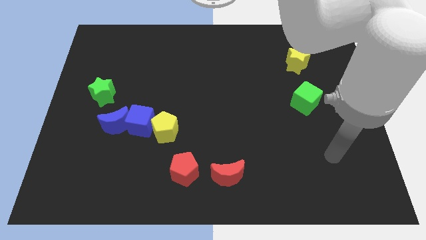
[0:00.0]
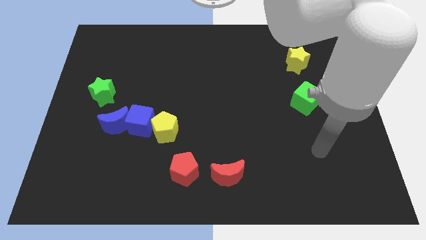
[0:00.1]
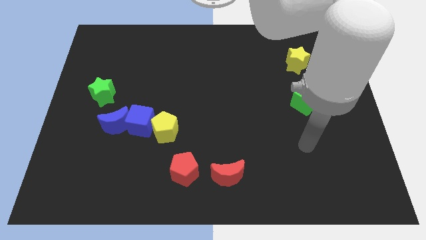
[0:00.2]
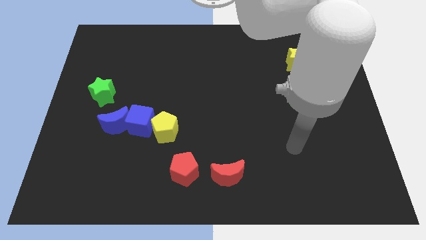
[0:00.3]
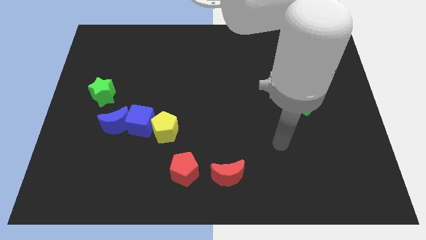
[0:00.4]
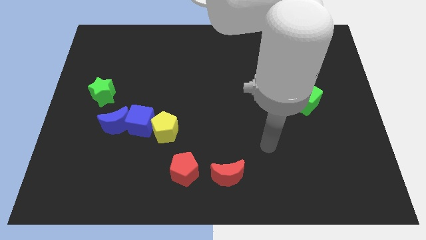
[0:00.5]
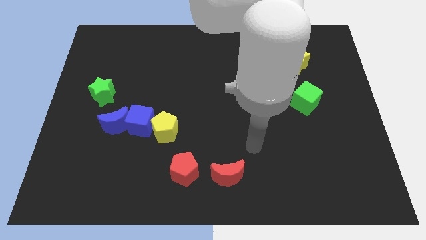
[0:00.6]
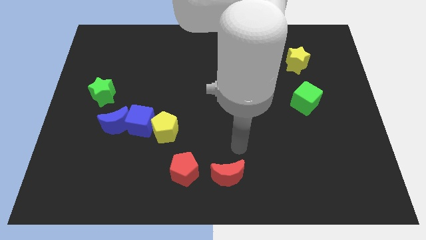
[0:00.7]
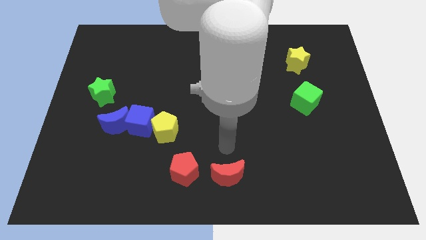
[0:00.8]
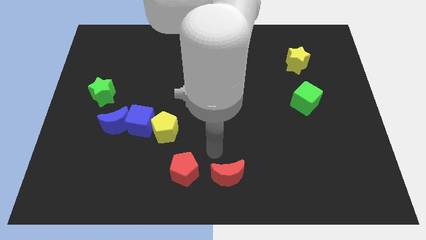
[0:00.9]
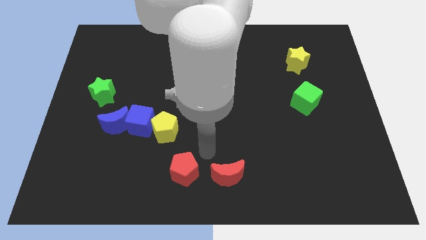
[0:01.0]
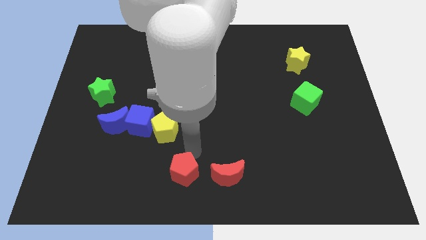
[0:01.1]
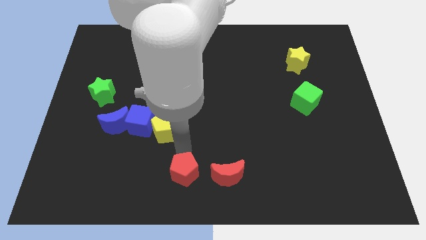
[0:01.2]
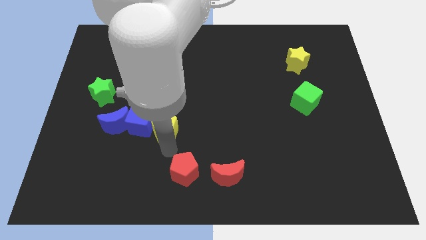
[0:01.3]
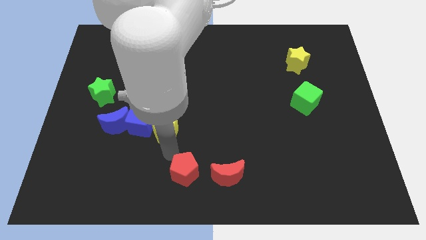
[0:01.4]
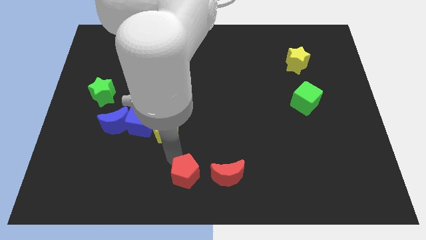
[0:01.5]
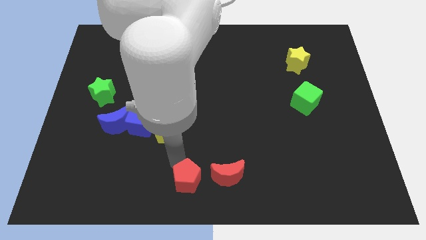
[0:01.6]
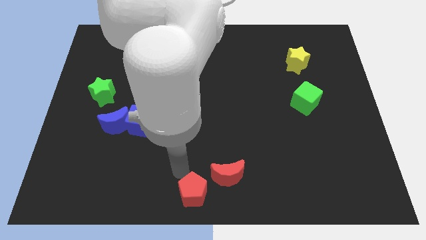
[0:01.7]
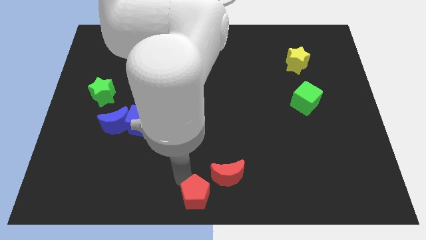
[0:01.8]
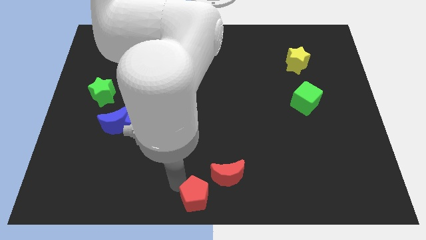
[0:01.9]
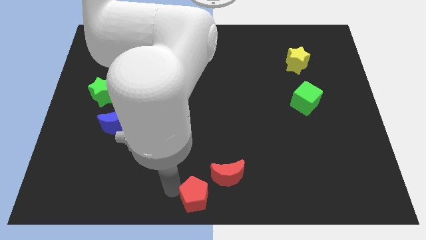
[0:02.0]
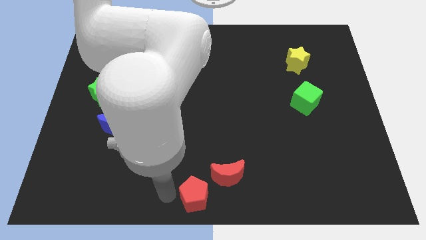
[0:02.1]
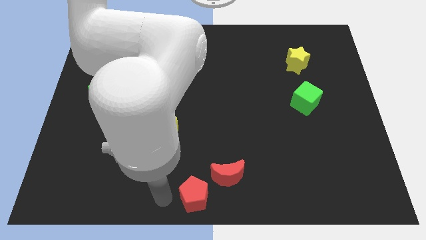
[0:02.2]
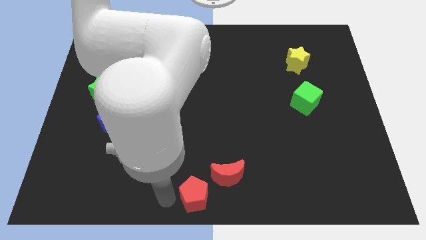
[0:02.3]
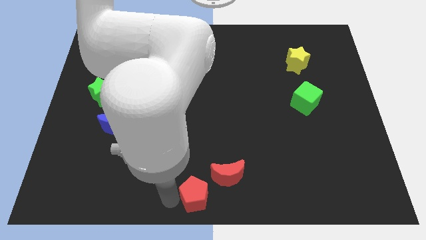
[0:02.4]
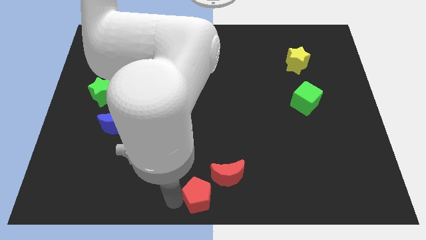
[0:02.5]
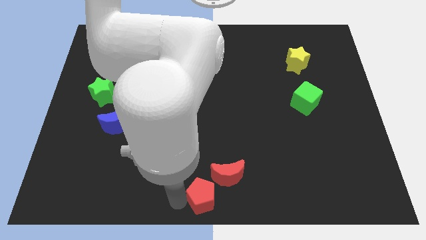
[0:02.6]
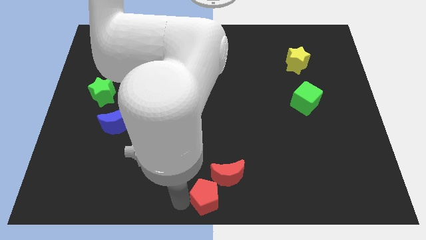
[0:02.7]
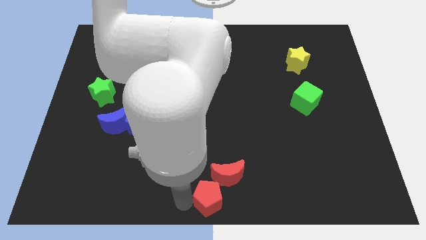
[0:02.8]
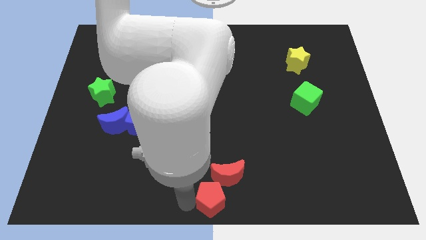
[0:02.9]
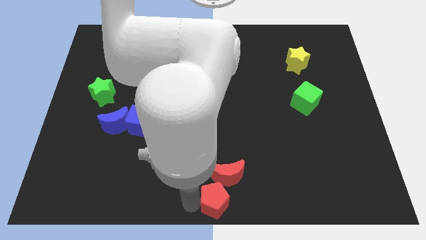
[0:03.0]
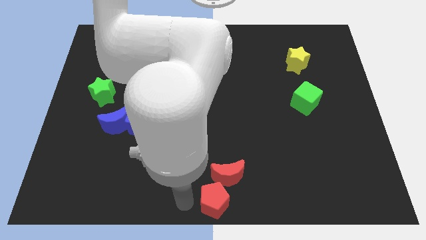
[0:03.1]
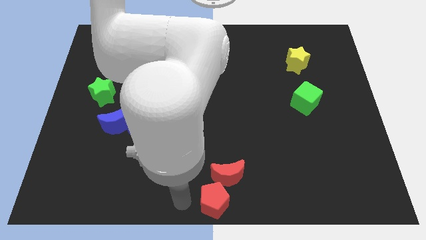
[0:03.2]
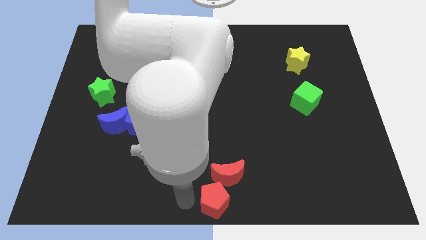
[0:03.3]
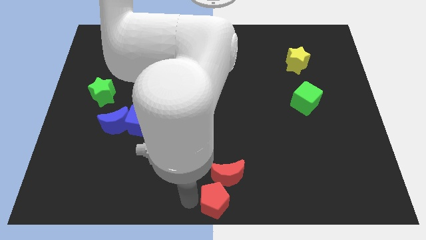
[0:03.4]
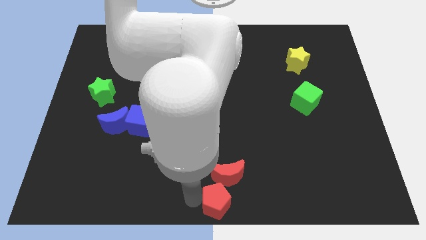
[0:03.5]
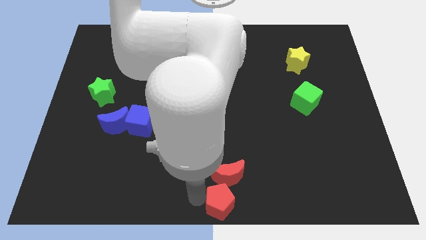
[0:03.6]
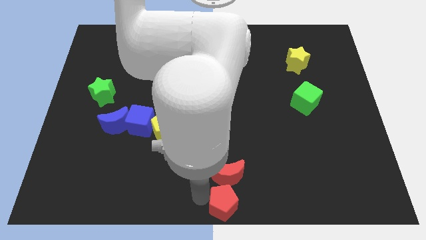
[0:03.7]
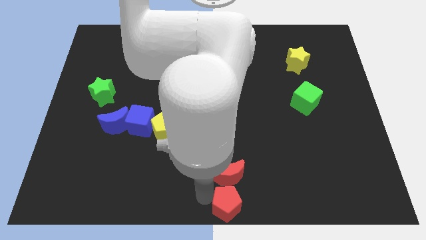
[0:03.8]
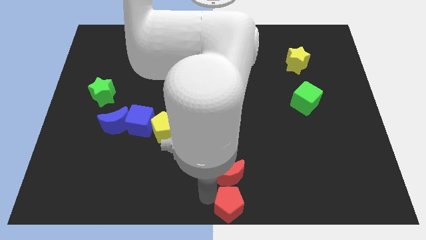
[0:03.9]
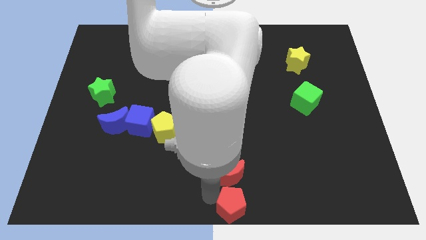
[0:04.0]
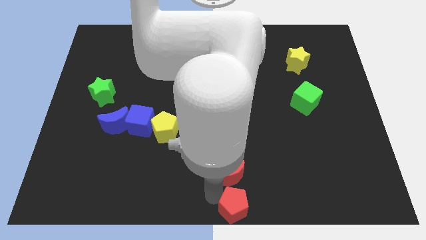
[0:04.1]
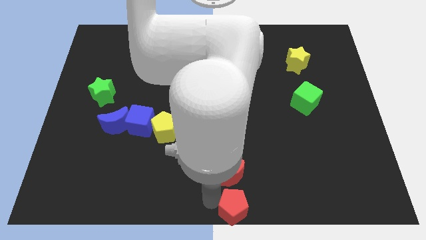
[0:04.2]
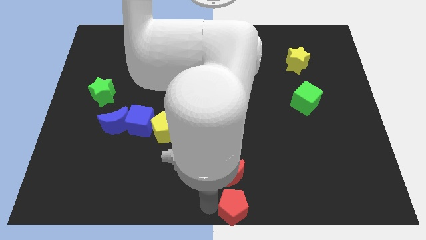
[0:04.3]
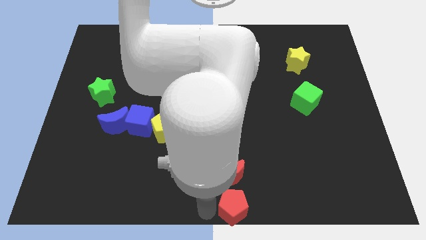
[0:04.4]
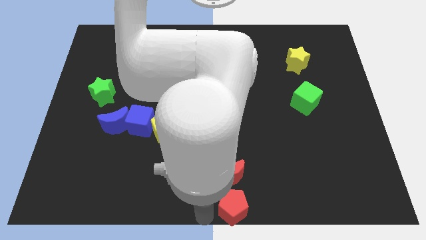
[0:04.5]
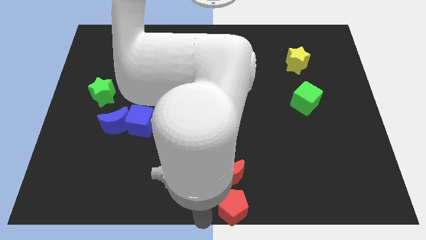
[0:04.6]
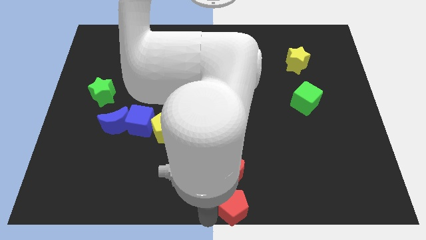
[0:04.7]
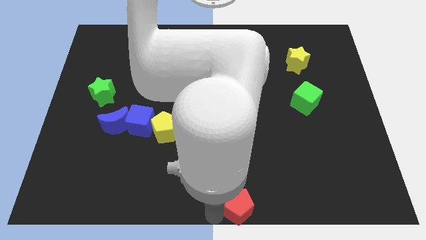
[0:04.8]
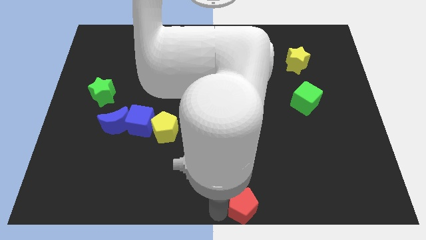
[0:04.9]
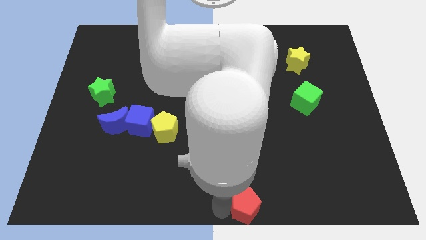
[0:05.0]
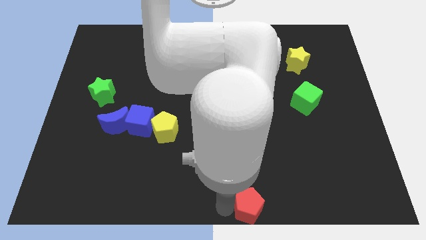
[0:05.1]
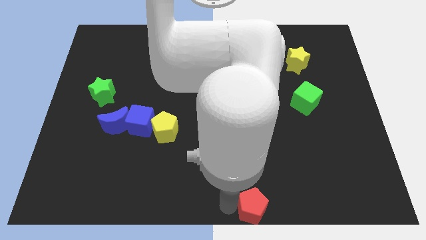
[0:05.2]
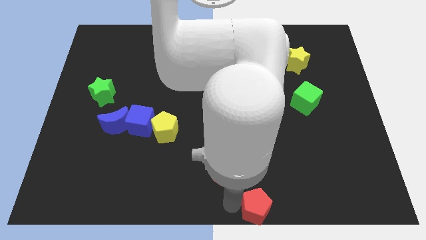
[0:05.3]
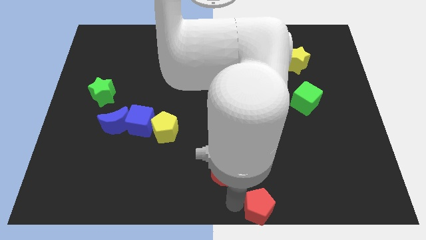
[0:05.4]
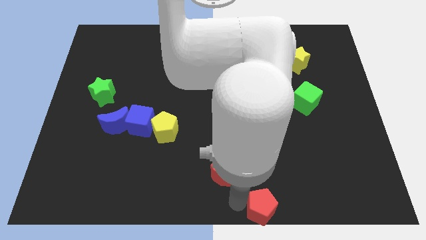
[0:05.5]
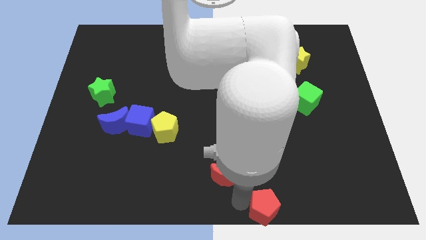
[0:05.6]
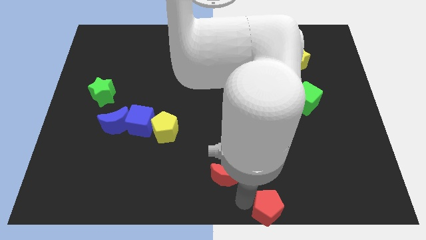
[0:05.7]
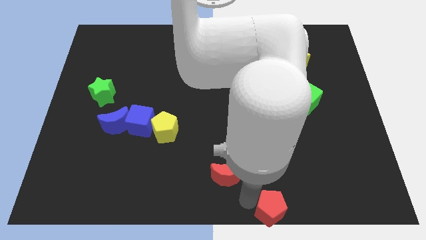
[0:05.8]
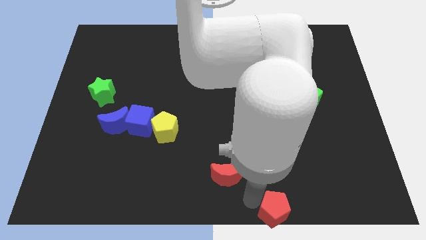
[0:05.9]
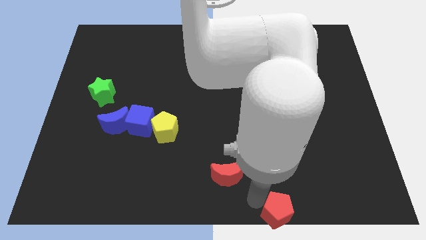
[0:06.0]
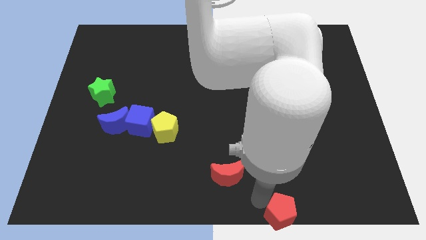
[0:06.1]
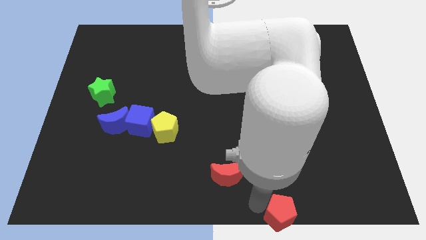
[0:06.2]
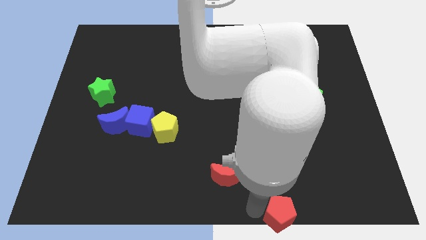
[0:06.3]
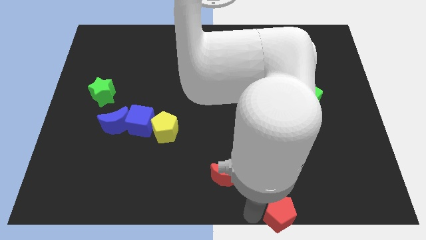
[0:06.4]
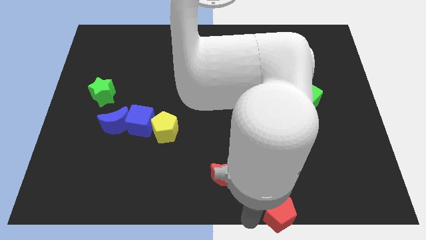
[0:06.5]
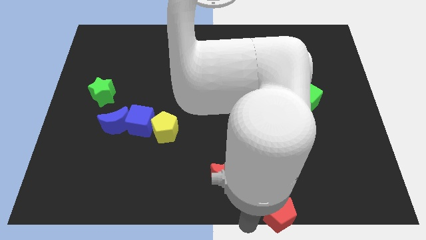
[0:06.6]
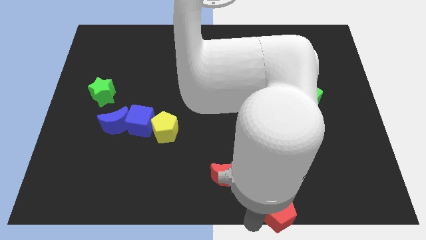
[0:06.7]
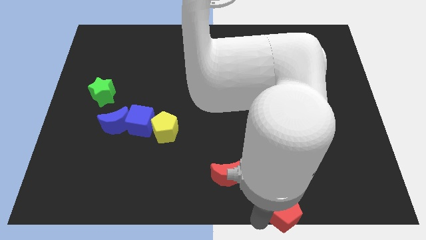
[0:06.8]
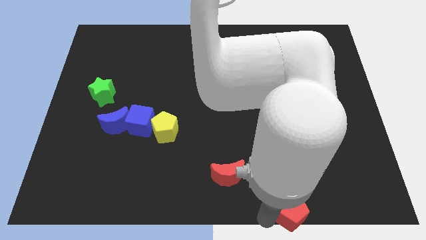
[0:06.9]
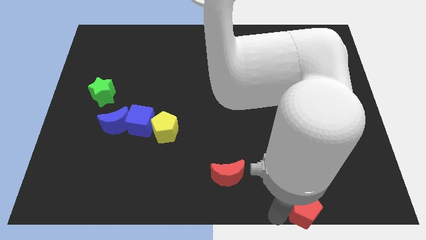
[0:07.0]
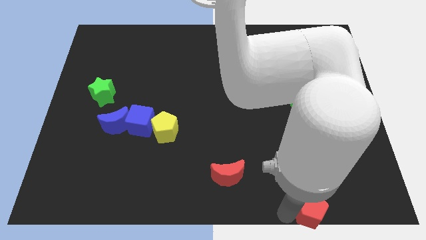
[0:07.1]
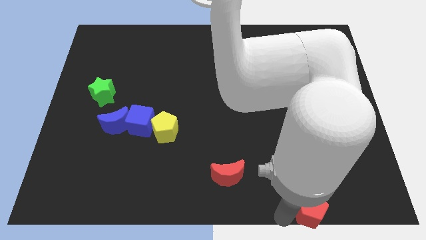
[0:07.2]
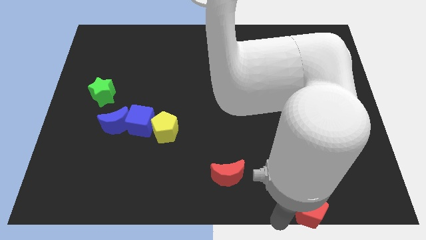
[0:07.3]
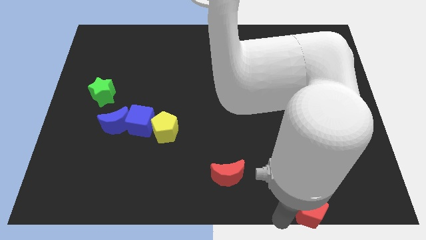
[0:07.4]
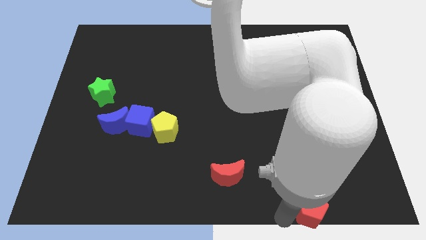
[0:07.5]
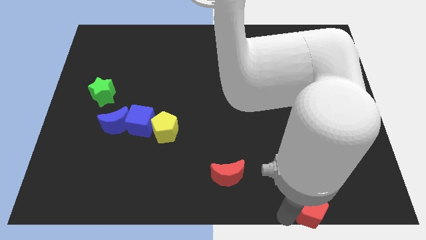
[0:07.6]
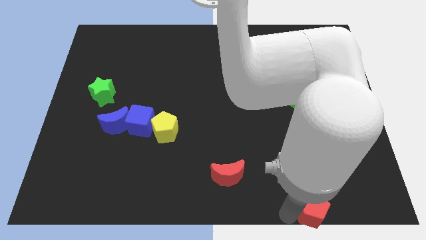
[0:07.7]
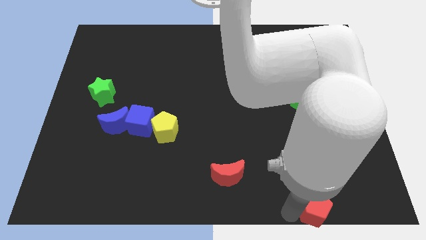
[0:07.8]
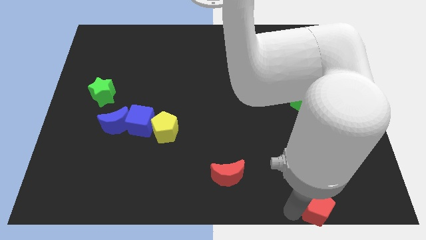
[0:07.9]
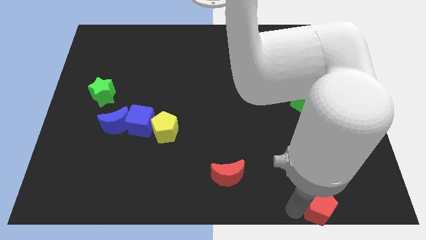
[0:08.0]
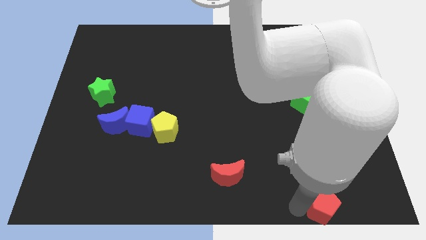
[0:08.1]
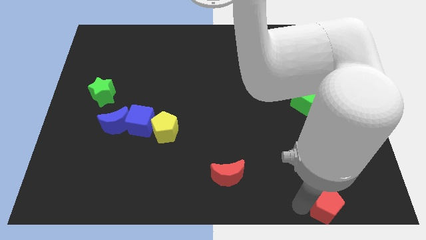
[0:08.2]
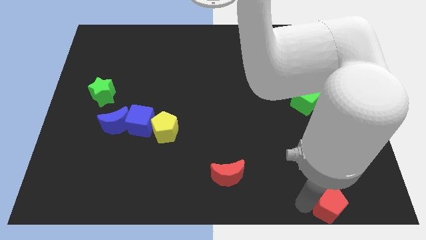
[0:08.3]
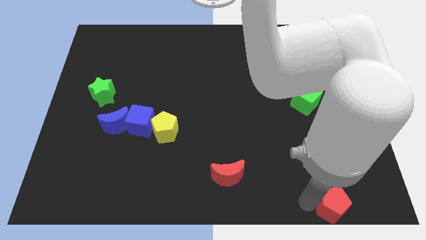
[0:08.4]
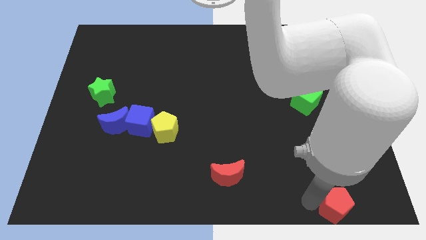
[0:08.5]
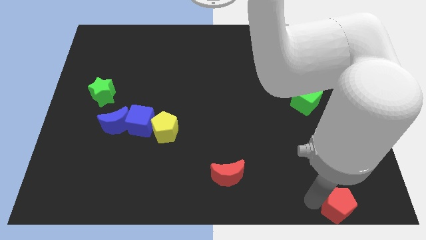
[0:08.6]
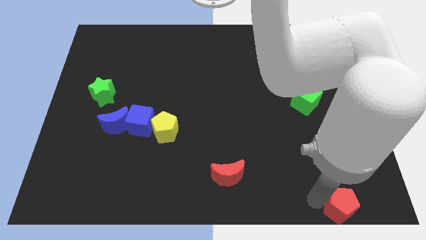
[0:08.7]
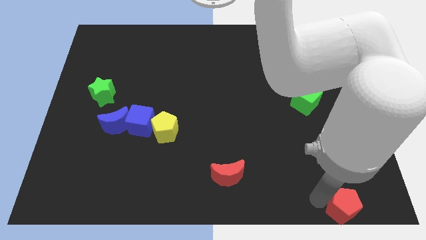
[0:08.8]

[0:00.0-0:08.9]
slide the red pentagon to the bottom right
